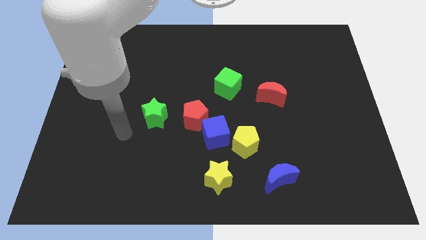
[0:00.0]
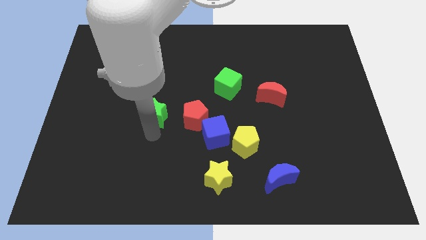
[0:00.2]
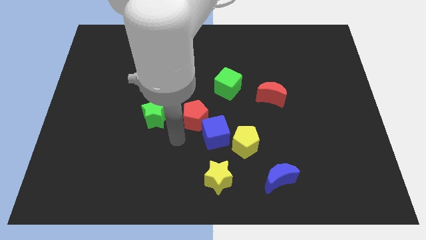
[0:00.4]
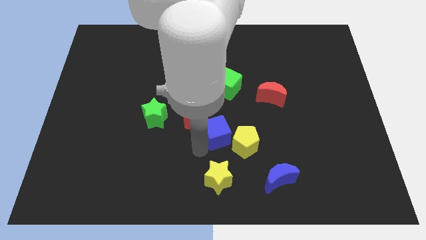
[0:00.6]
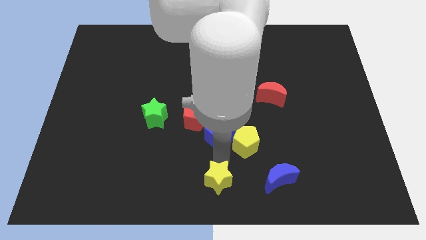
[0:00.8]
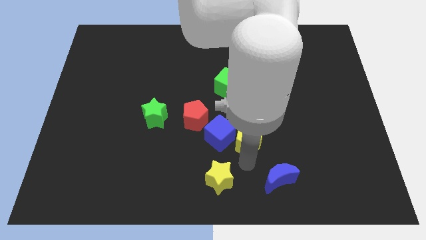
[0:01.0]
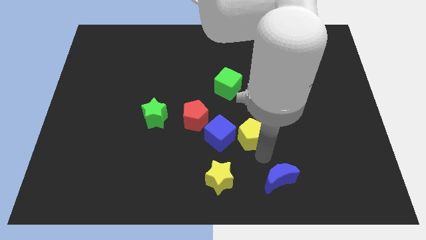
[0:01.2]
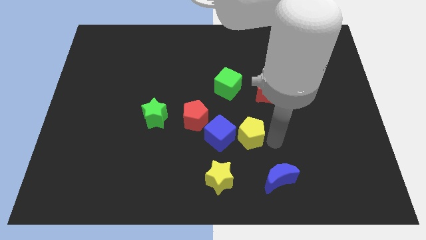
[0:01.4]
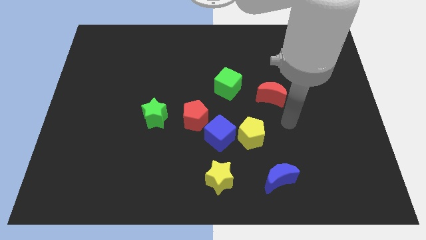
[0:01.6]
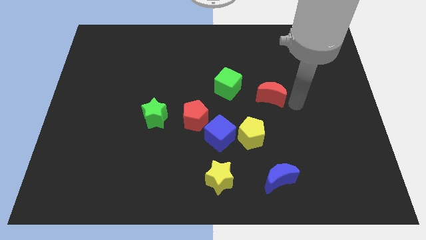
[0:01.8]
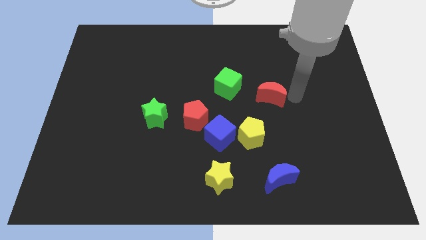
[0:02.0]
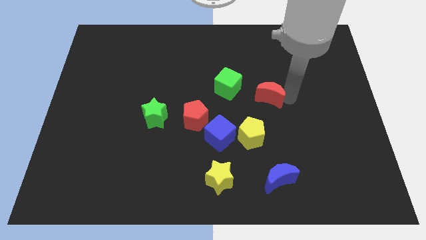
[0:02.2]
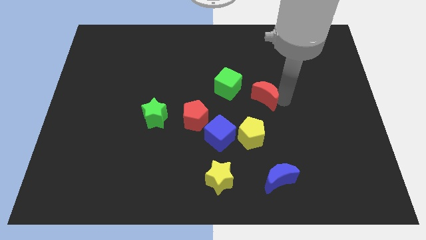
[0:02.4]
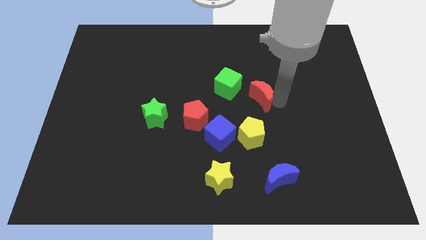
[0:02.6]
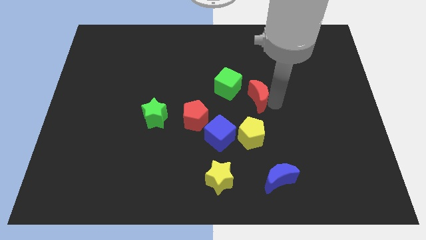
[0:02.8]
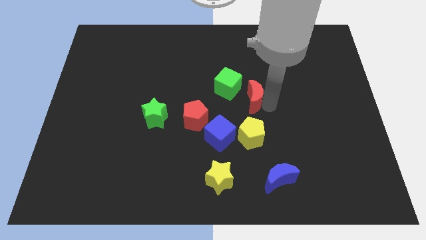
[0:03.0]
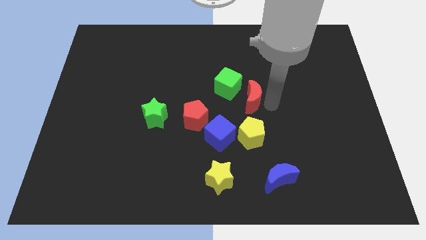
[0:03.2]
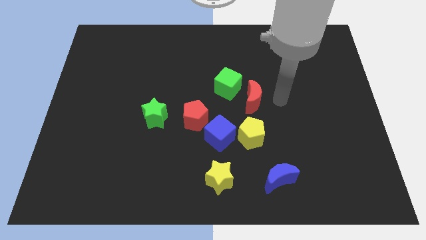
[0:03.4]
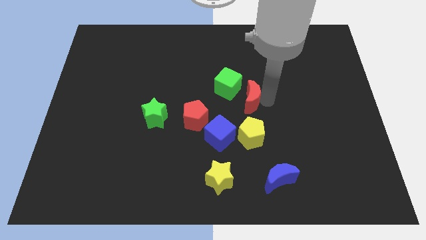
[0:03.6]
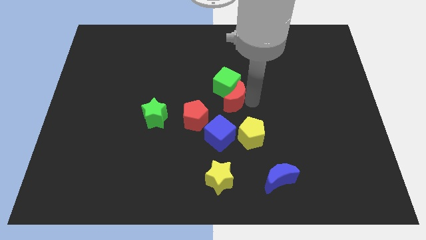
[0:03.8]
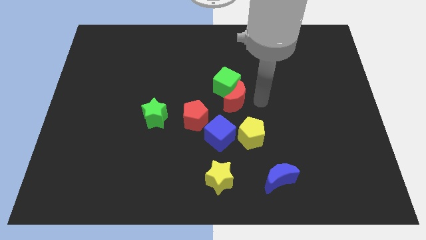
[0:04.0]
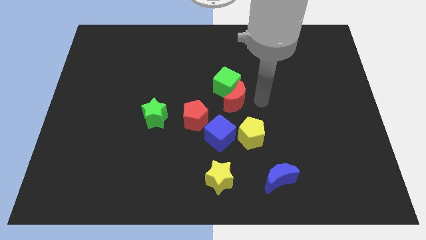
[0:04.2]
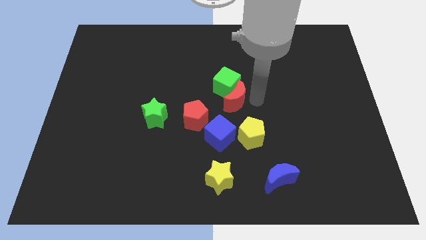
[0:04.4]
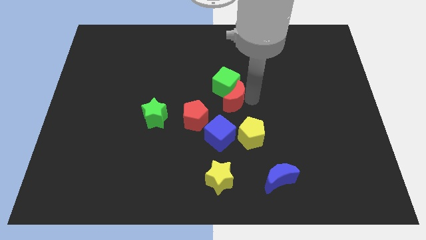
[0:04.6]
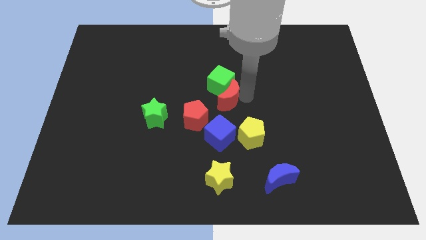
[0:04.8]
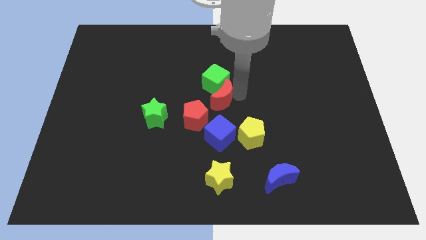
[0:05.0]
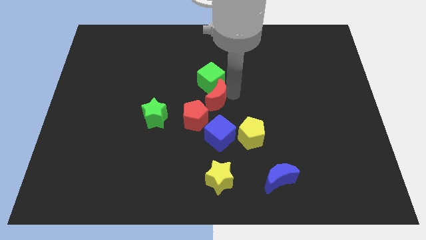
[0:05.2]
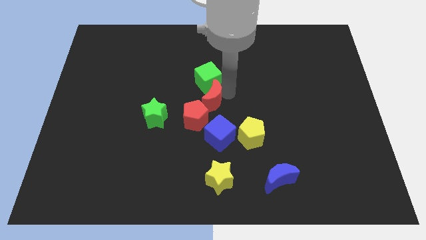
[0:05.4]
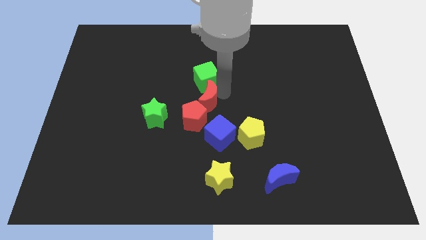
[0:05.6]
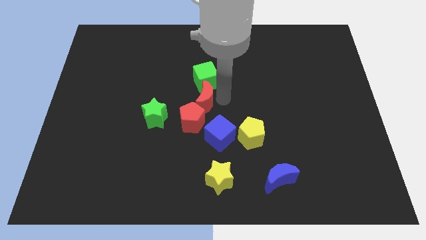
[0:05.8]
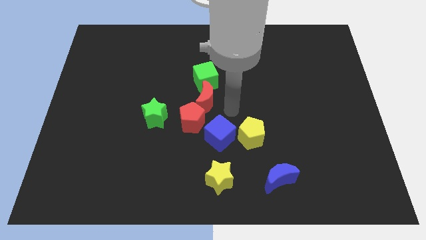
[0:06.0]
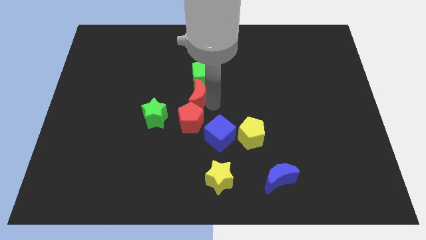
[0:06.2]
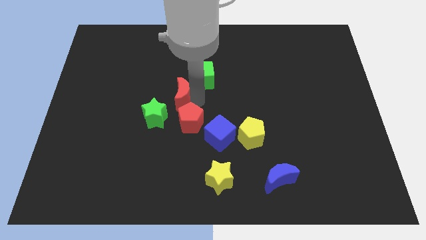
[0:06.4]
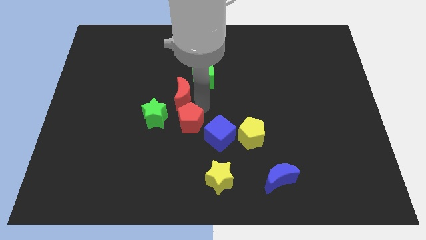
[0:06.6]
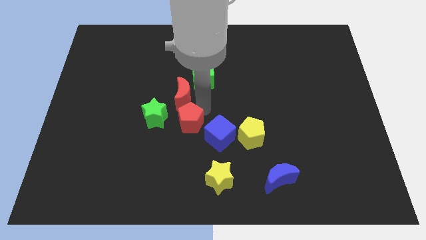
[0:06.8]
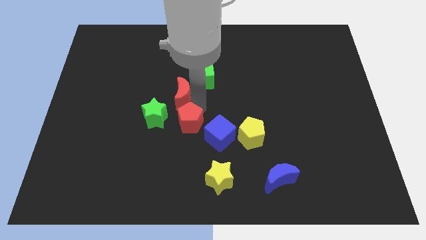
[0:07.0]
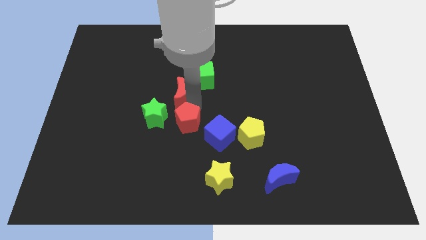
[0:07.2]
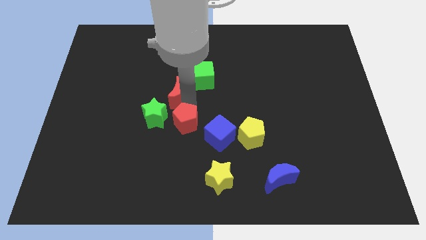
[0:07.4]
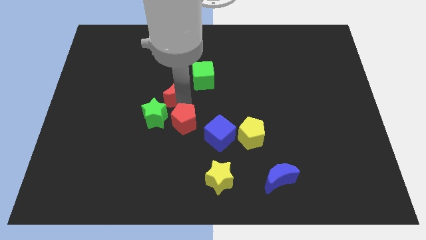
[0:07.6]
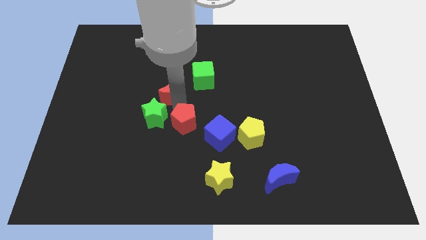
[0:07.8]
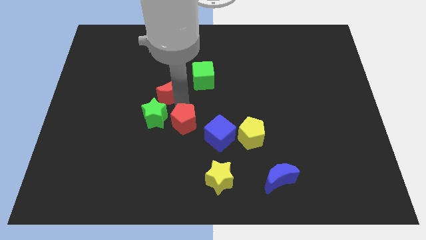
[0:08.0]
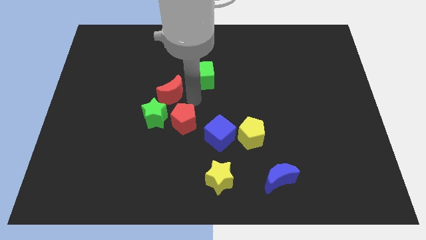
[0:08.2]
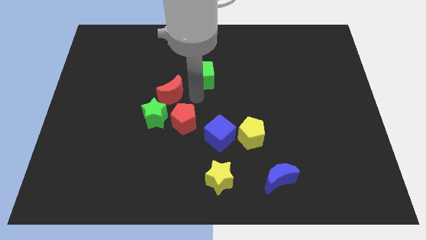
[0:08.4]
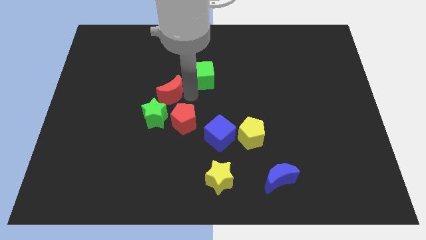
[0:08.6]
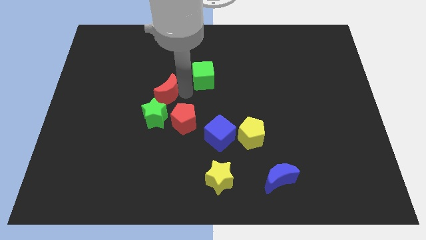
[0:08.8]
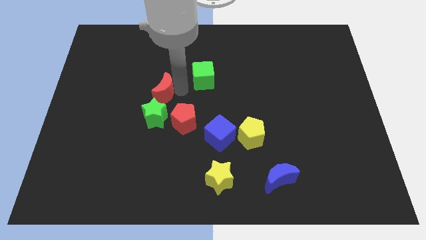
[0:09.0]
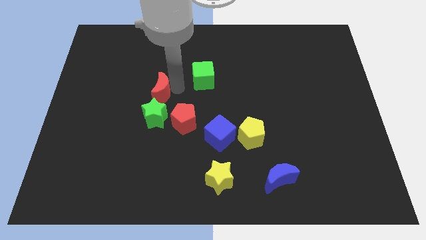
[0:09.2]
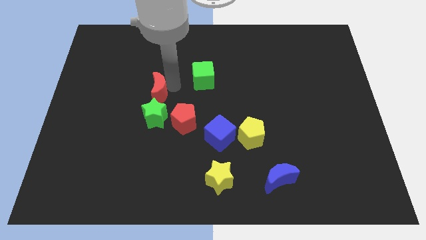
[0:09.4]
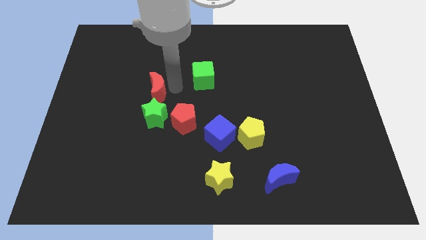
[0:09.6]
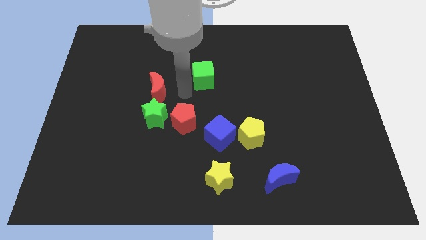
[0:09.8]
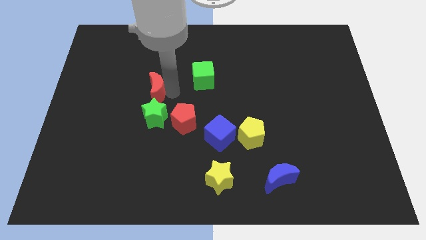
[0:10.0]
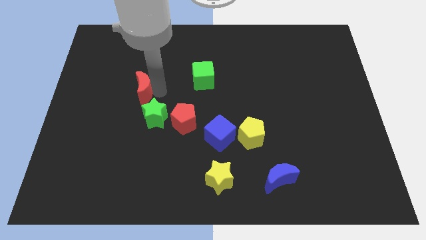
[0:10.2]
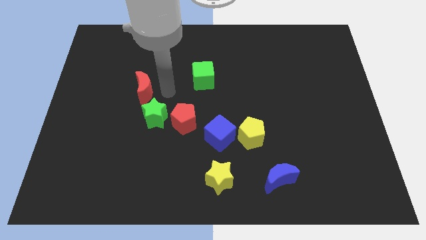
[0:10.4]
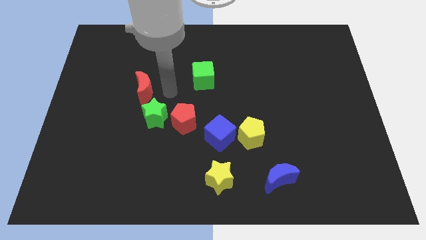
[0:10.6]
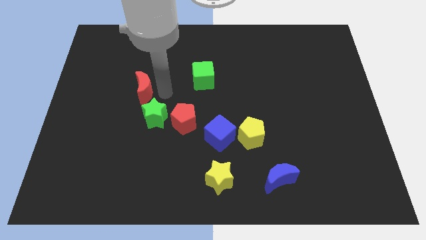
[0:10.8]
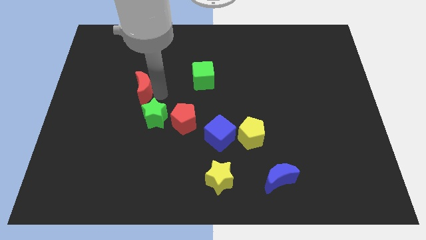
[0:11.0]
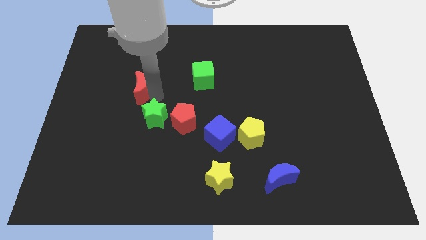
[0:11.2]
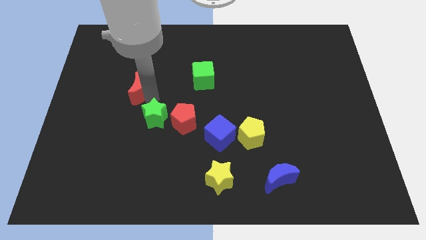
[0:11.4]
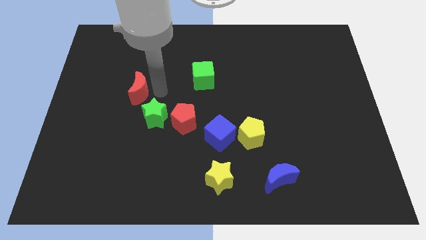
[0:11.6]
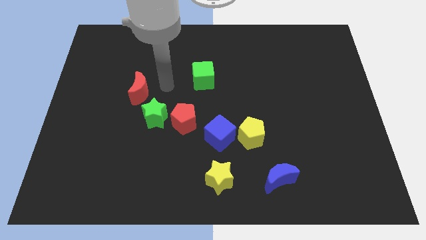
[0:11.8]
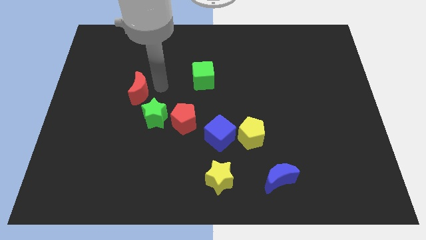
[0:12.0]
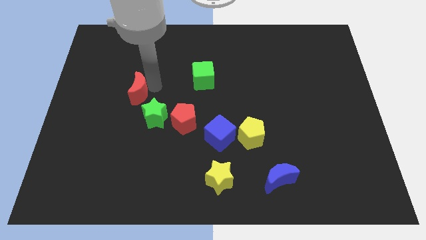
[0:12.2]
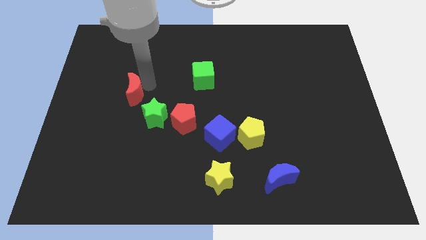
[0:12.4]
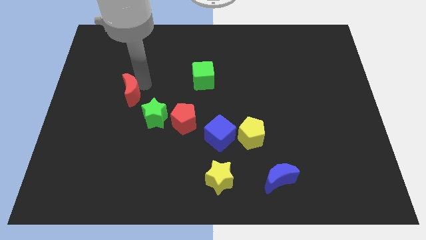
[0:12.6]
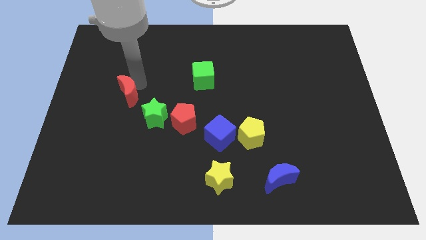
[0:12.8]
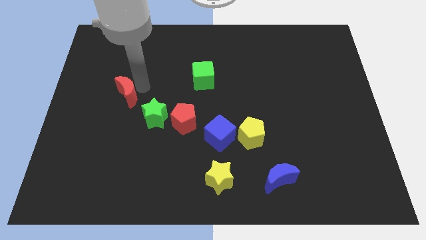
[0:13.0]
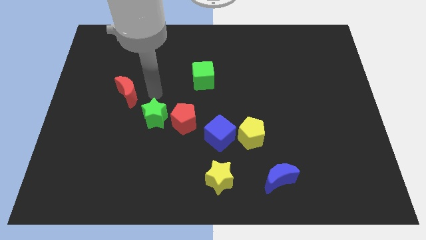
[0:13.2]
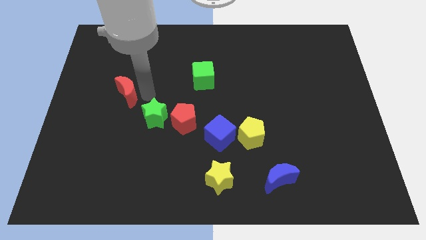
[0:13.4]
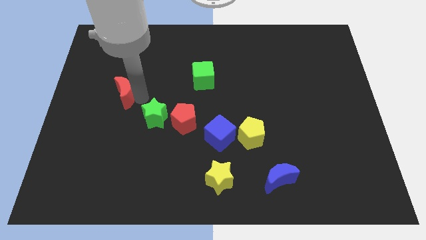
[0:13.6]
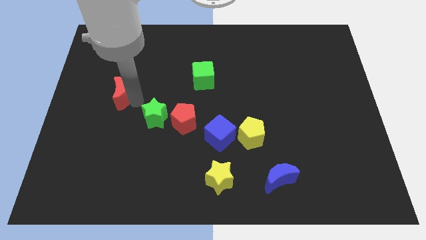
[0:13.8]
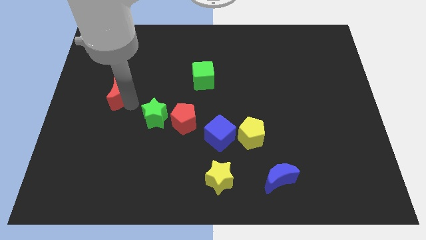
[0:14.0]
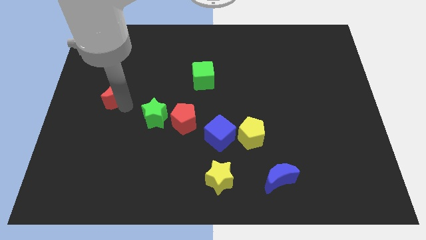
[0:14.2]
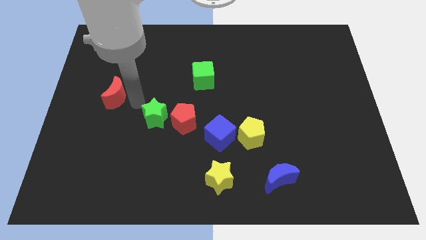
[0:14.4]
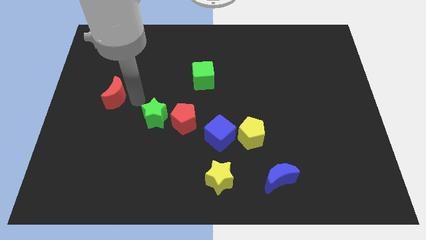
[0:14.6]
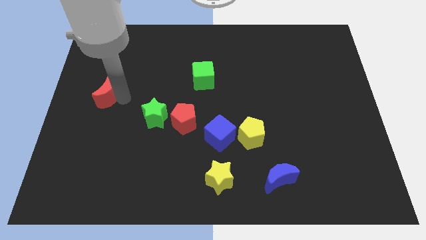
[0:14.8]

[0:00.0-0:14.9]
move the red moon to the left side
